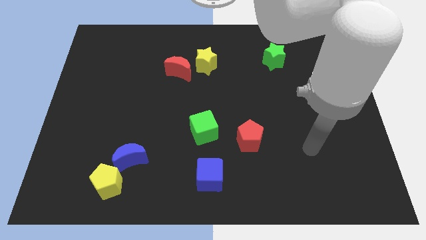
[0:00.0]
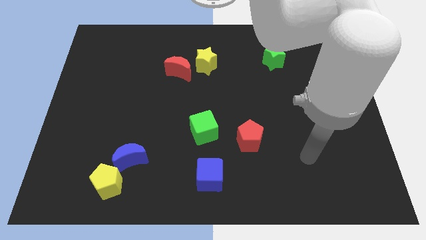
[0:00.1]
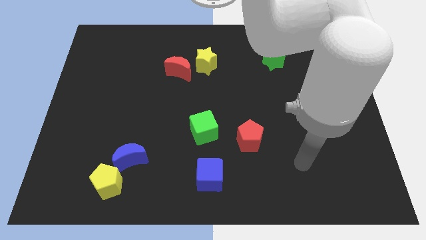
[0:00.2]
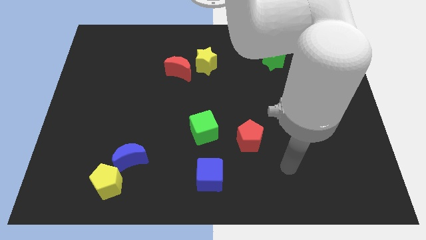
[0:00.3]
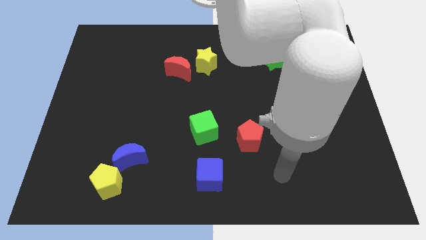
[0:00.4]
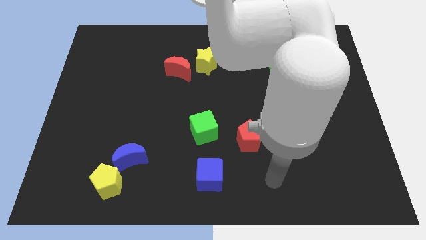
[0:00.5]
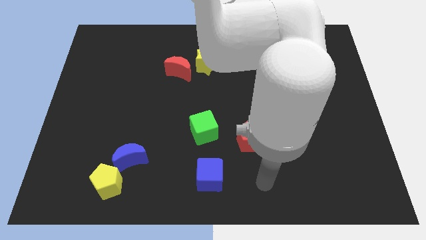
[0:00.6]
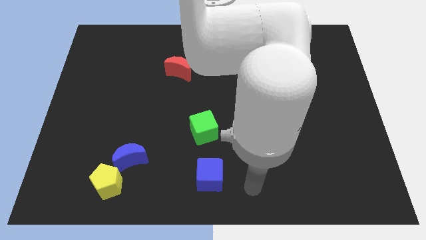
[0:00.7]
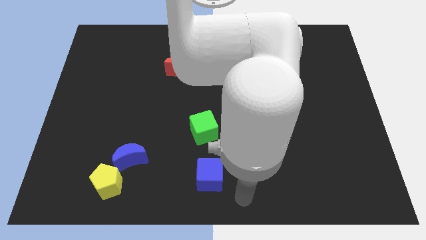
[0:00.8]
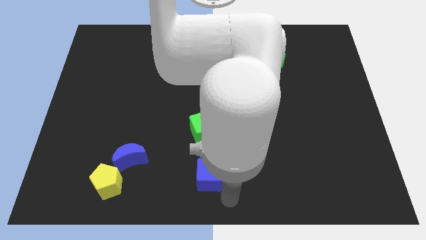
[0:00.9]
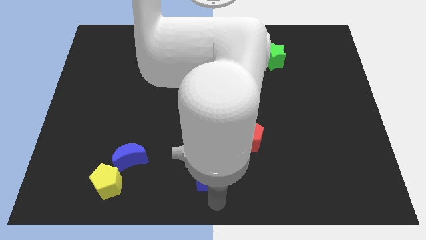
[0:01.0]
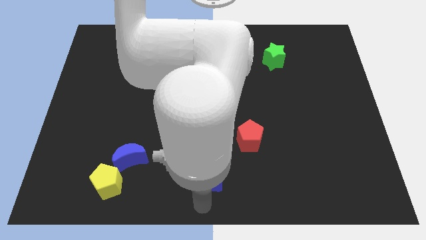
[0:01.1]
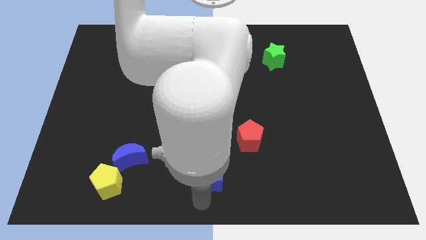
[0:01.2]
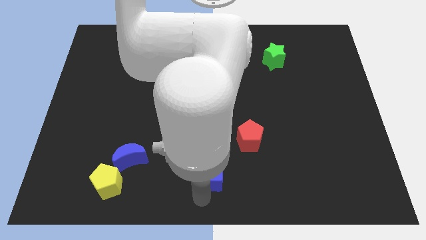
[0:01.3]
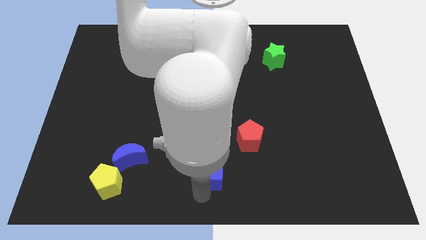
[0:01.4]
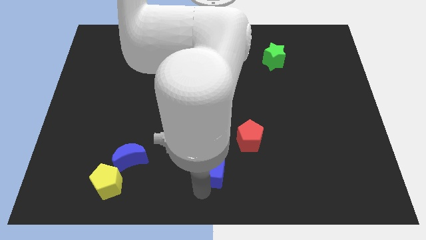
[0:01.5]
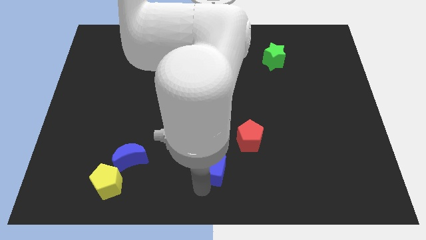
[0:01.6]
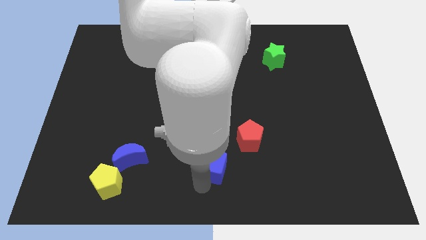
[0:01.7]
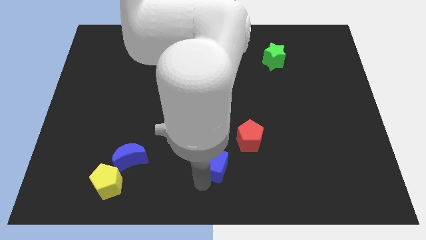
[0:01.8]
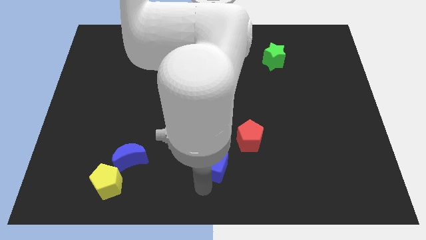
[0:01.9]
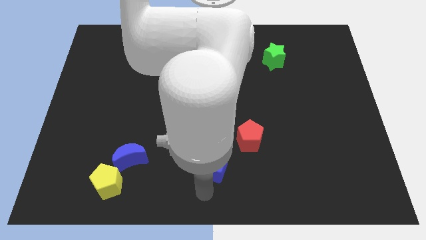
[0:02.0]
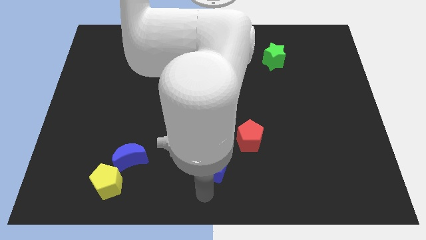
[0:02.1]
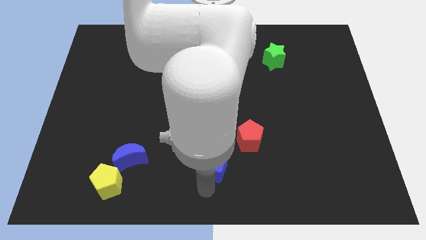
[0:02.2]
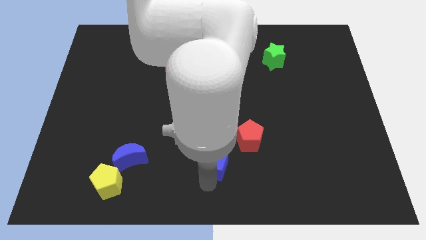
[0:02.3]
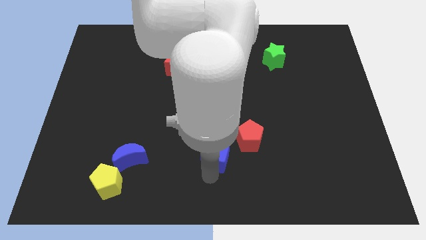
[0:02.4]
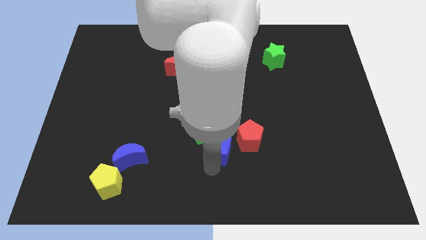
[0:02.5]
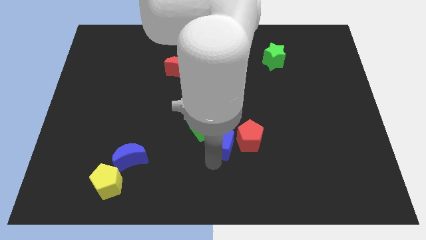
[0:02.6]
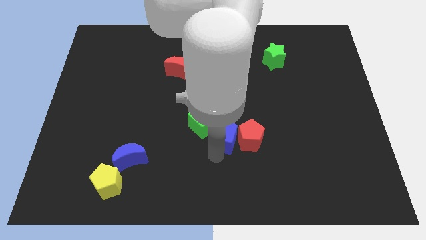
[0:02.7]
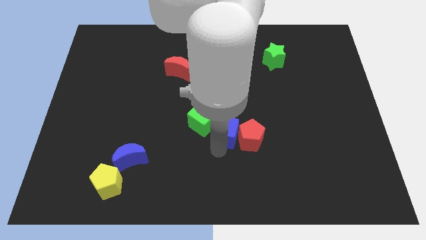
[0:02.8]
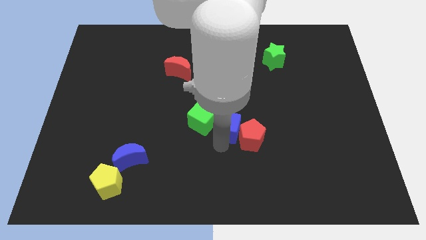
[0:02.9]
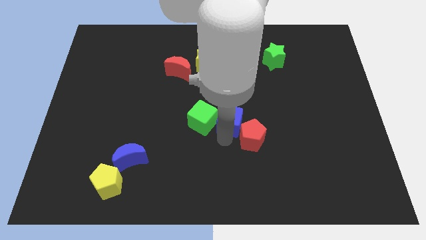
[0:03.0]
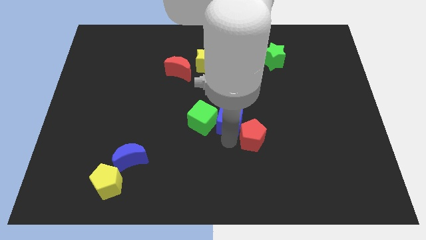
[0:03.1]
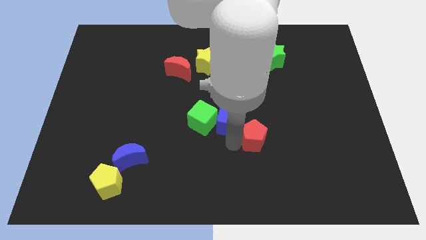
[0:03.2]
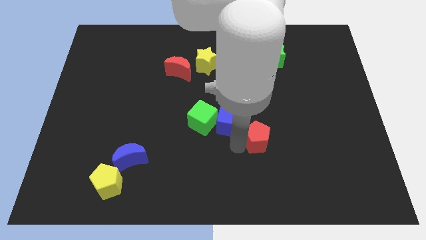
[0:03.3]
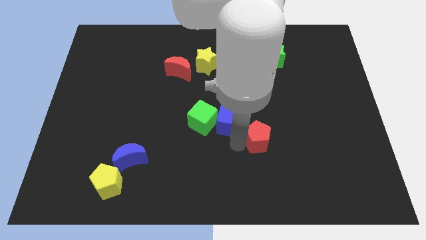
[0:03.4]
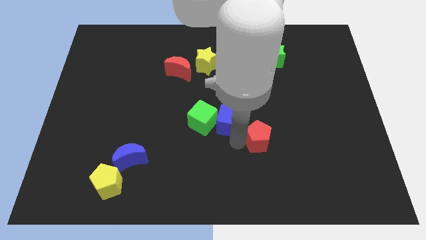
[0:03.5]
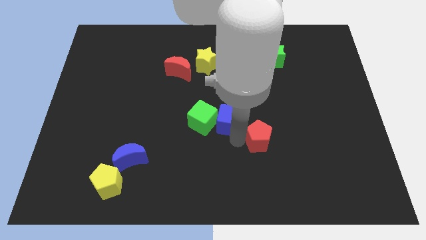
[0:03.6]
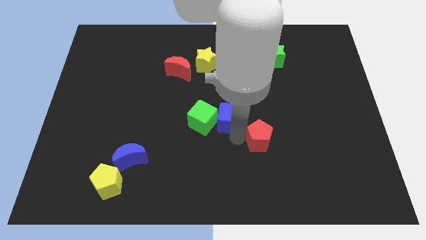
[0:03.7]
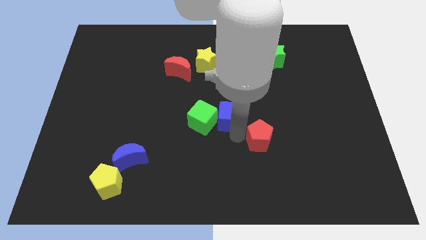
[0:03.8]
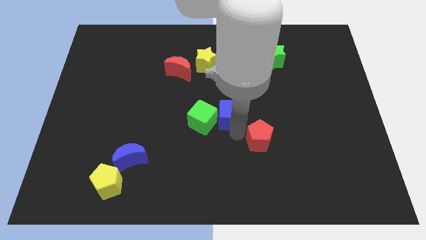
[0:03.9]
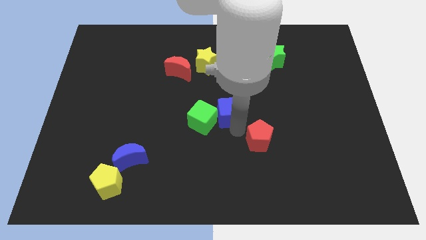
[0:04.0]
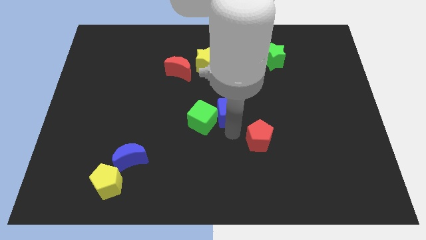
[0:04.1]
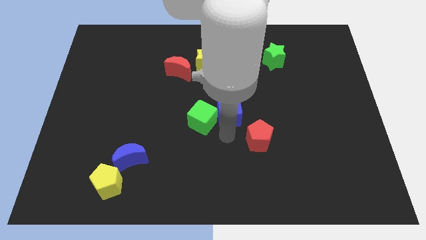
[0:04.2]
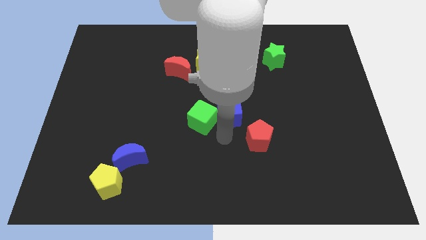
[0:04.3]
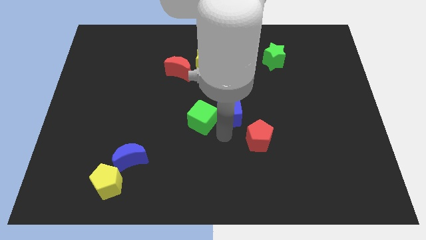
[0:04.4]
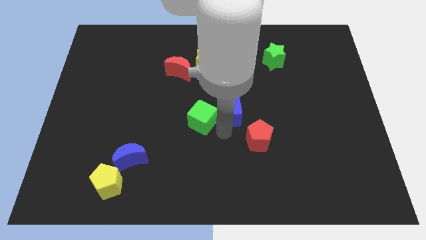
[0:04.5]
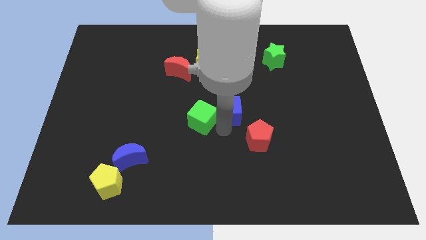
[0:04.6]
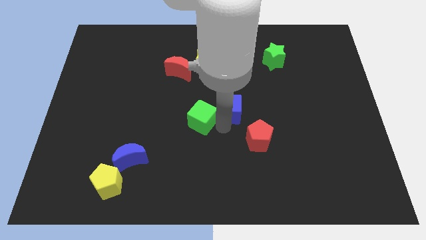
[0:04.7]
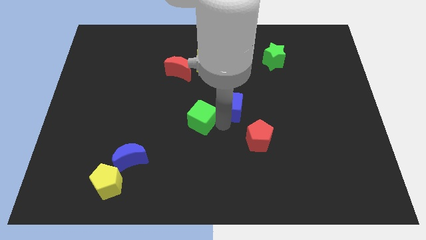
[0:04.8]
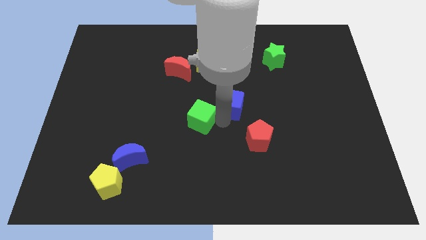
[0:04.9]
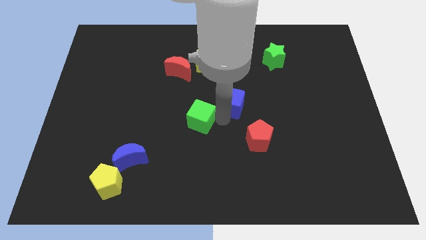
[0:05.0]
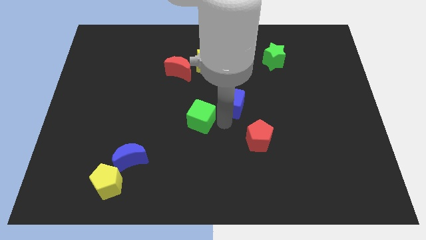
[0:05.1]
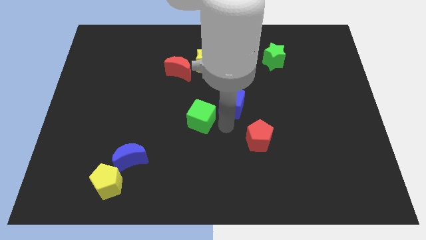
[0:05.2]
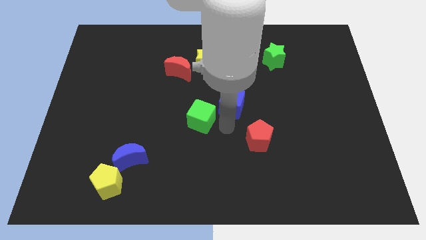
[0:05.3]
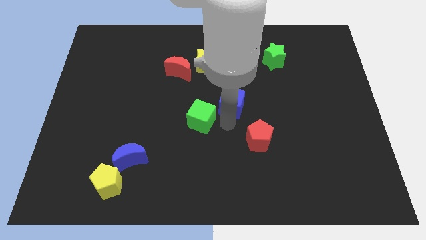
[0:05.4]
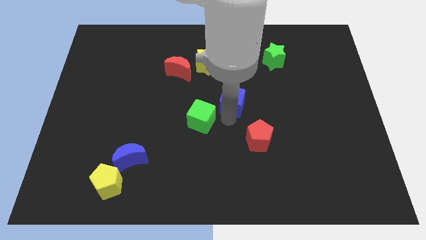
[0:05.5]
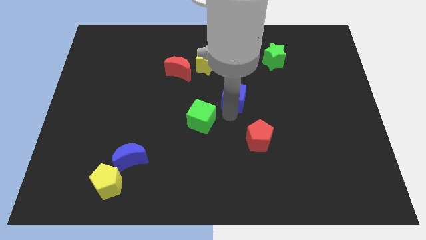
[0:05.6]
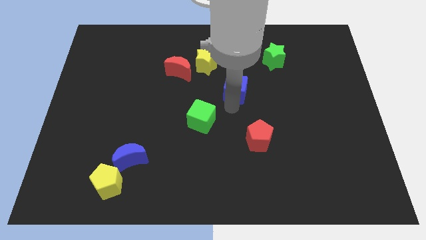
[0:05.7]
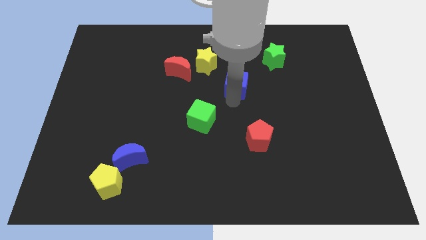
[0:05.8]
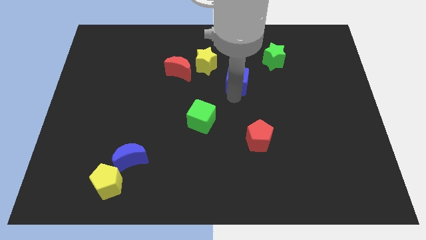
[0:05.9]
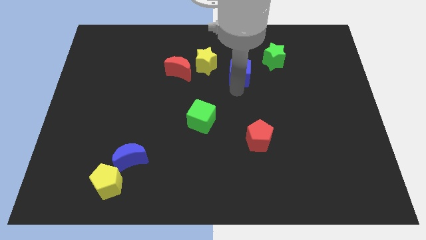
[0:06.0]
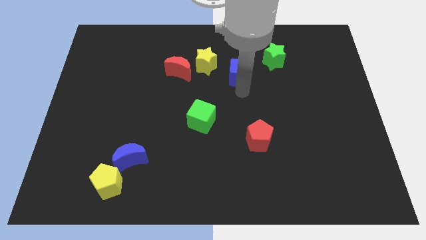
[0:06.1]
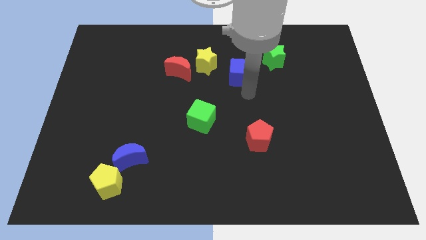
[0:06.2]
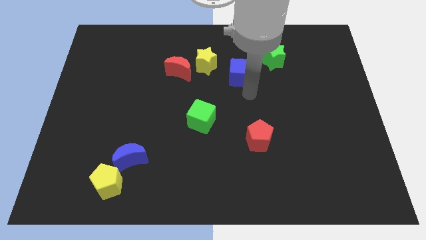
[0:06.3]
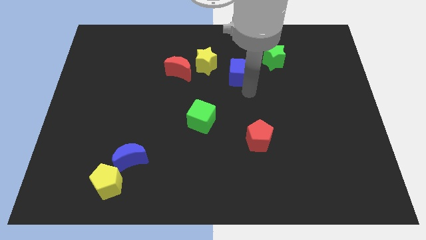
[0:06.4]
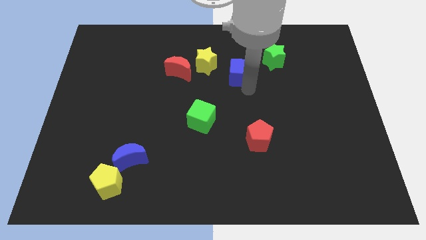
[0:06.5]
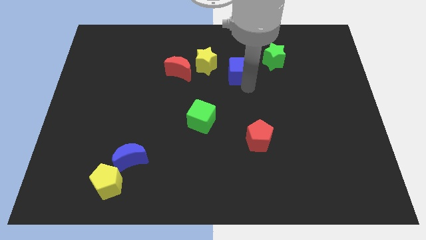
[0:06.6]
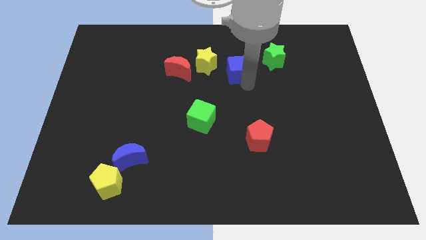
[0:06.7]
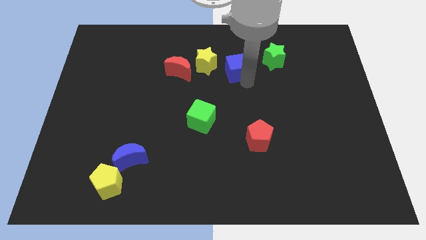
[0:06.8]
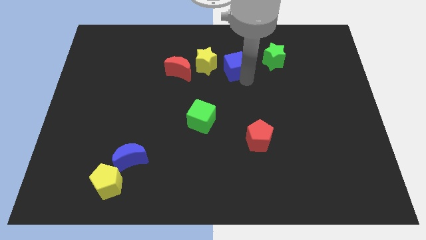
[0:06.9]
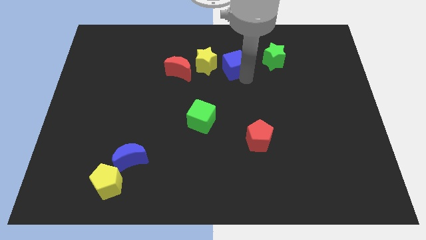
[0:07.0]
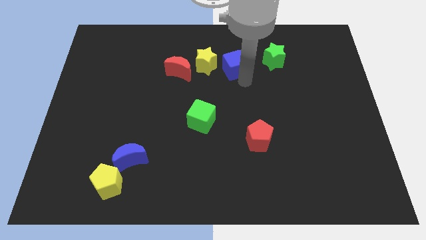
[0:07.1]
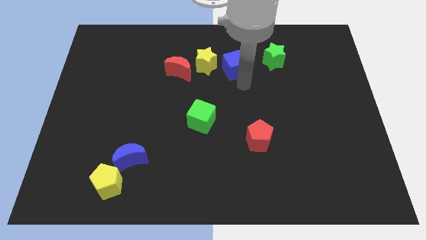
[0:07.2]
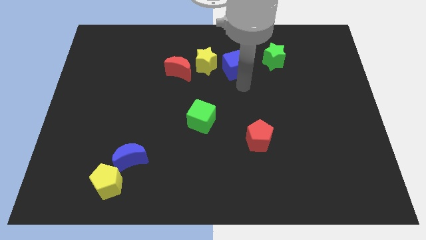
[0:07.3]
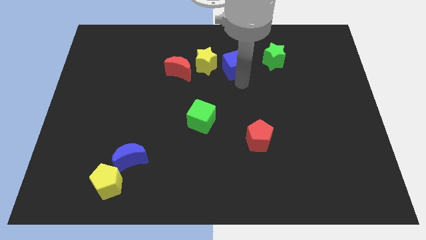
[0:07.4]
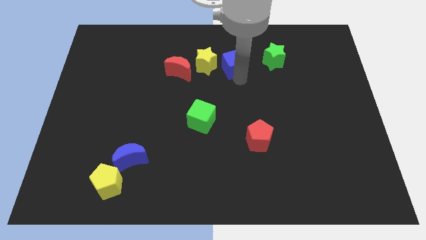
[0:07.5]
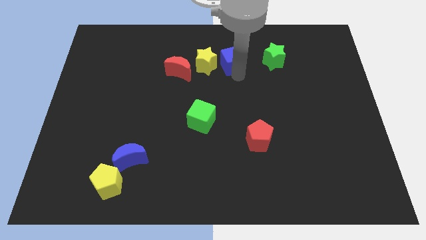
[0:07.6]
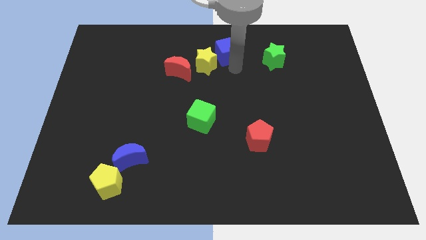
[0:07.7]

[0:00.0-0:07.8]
move the blue cube to the top side

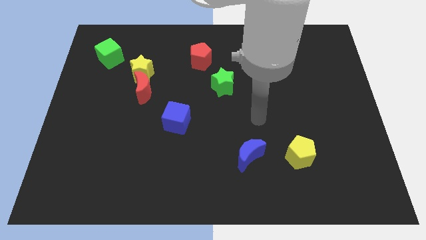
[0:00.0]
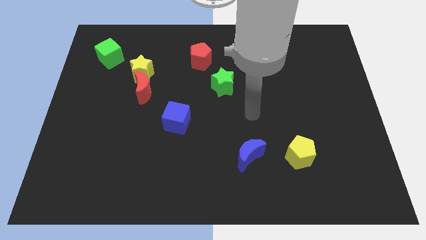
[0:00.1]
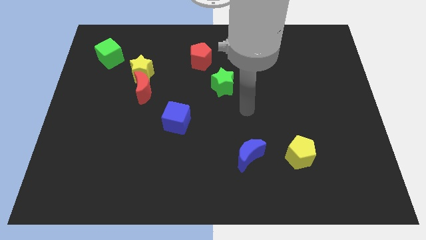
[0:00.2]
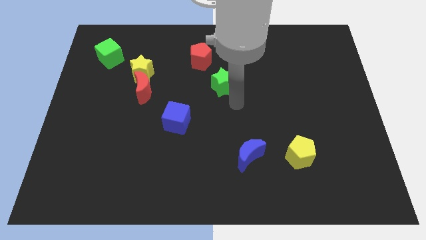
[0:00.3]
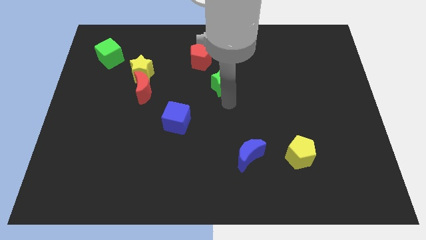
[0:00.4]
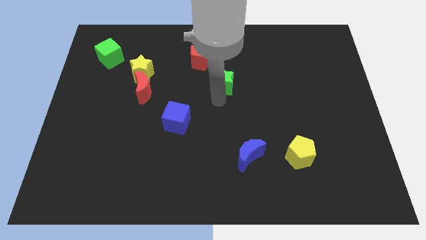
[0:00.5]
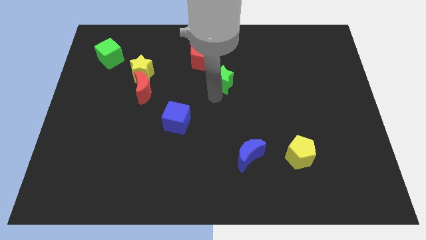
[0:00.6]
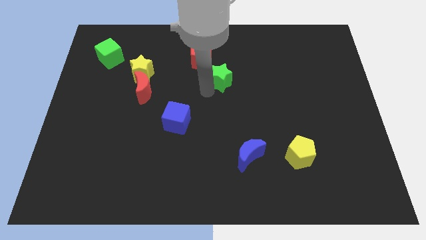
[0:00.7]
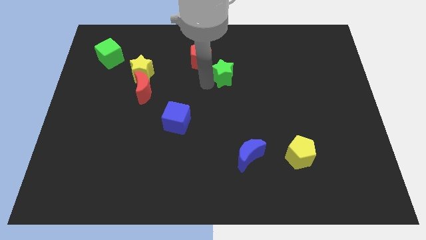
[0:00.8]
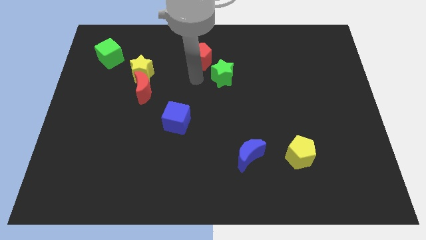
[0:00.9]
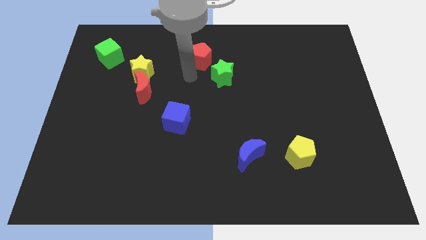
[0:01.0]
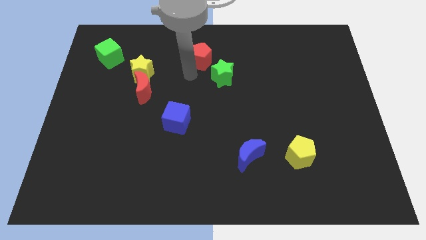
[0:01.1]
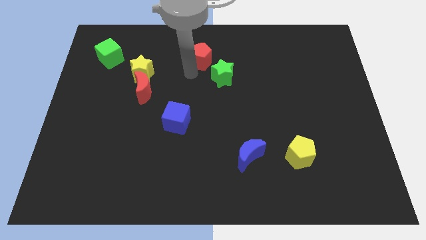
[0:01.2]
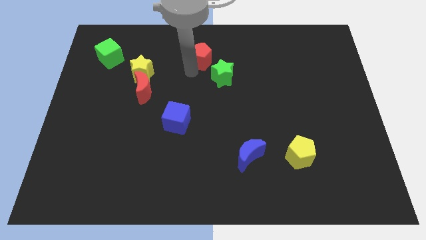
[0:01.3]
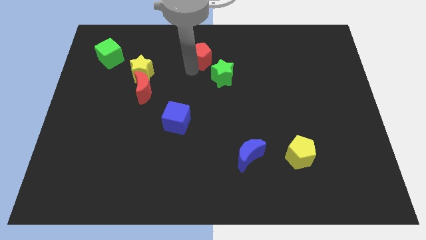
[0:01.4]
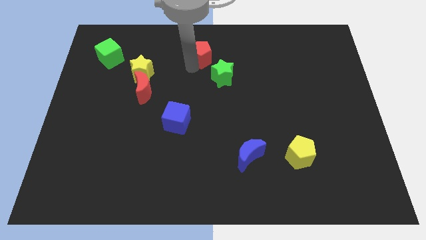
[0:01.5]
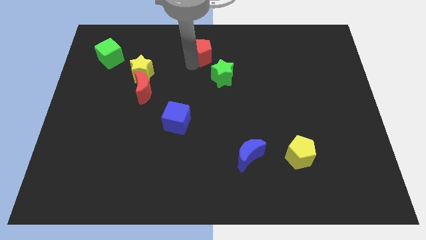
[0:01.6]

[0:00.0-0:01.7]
put the red pentagon to the towards your base
